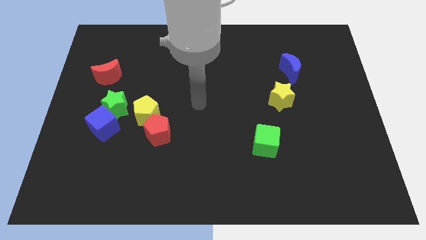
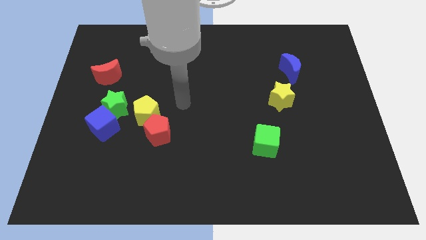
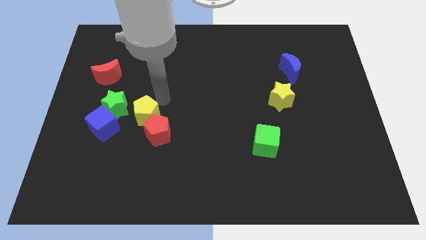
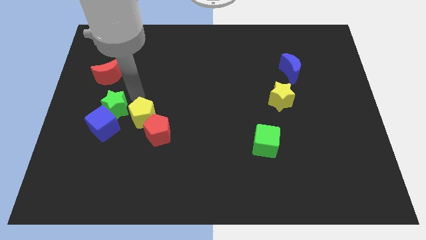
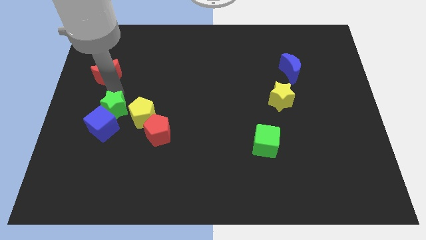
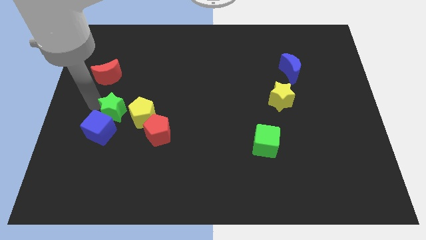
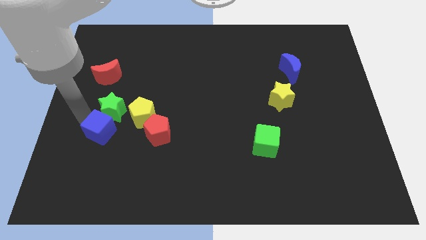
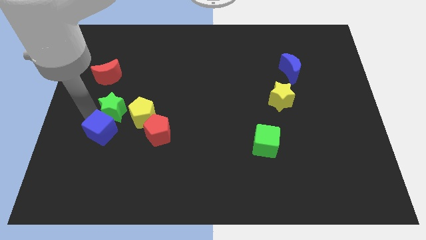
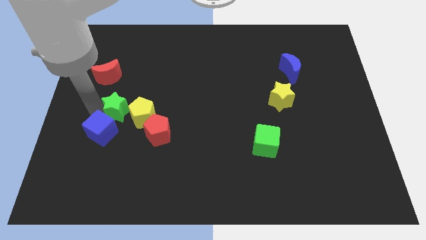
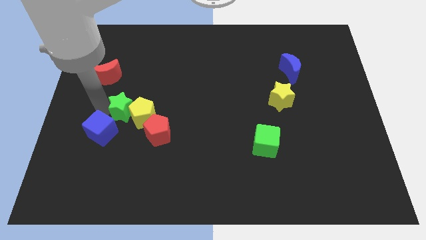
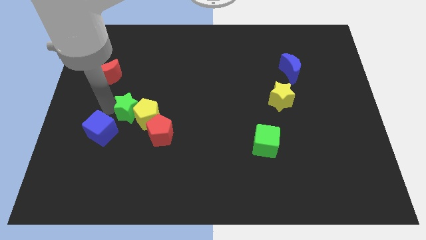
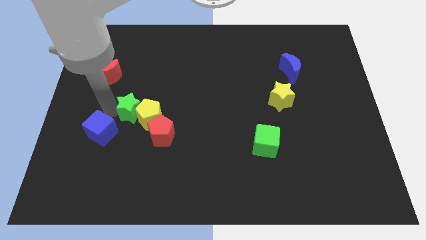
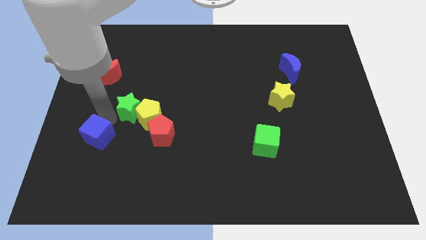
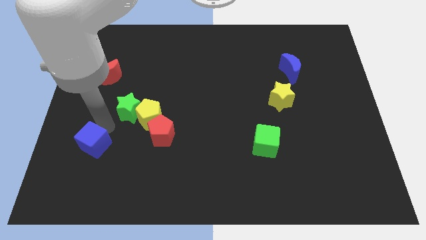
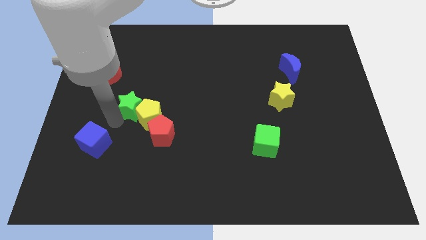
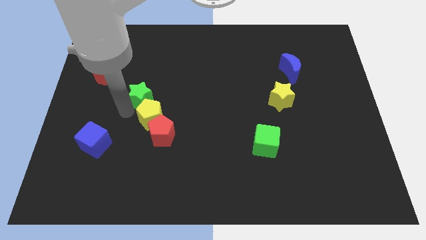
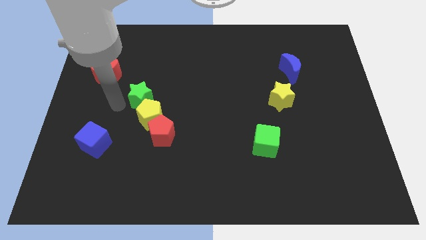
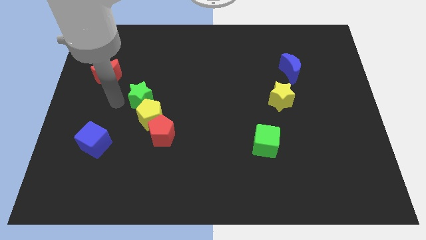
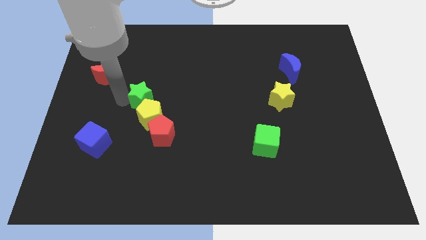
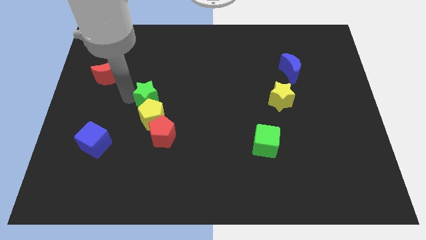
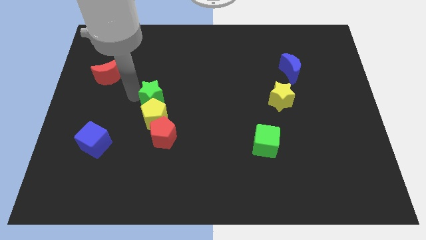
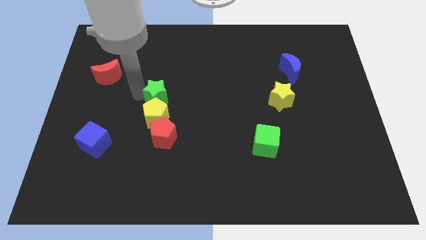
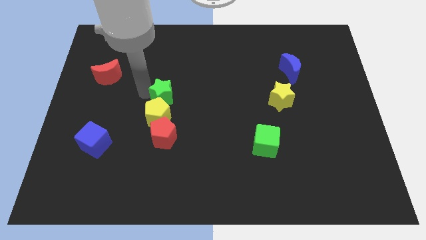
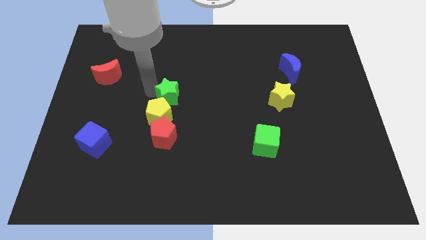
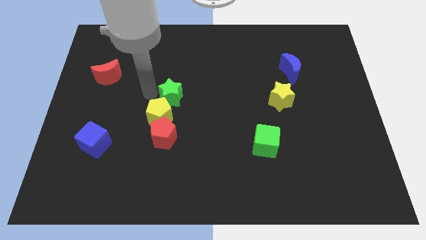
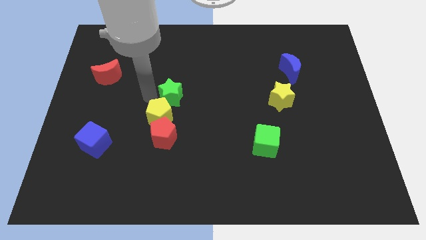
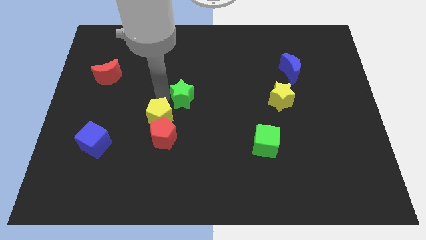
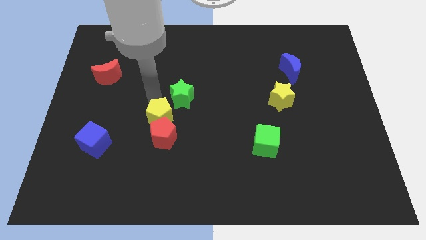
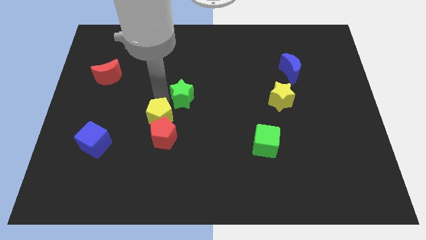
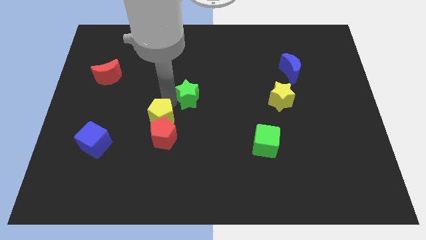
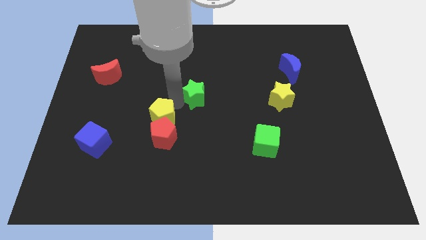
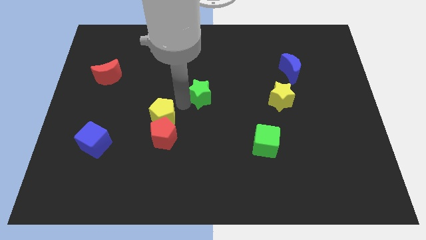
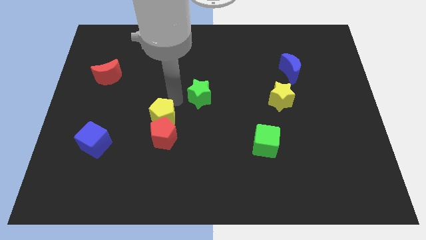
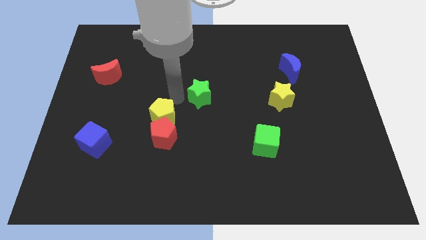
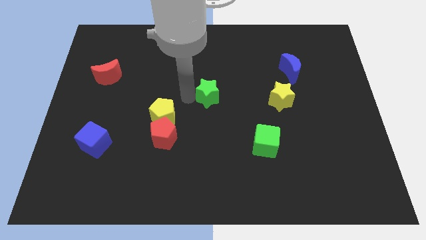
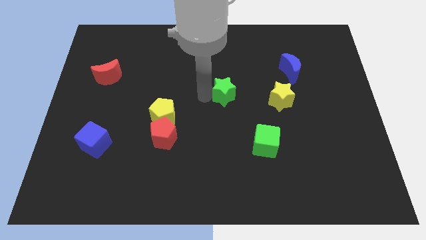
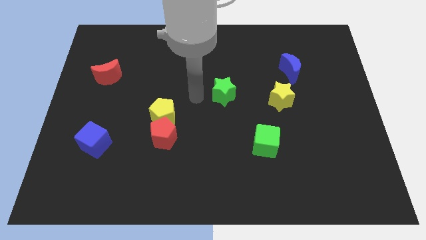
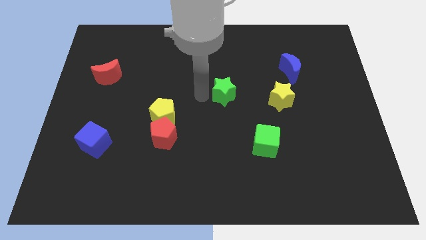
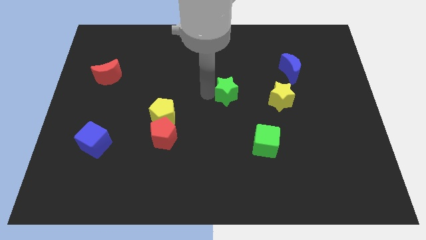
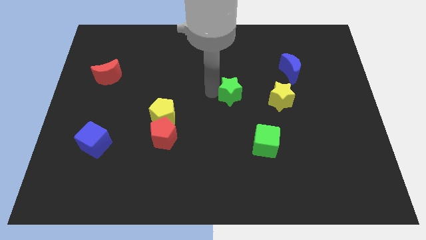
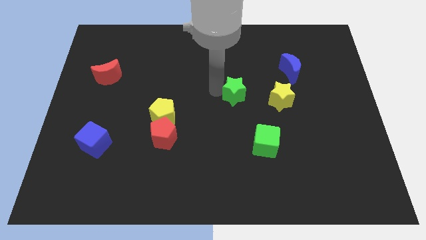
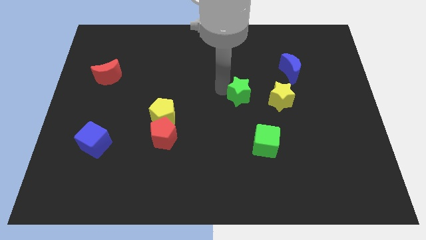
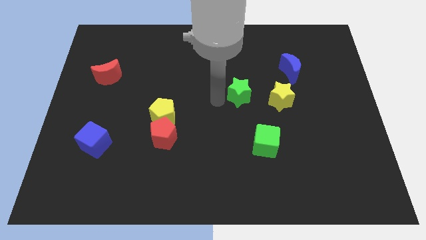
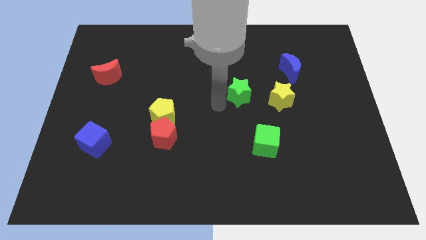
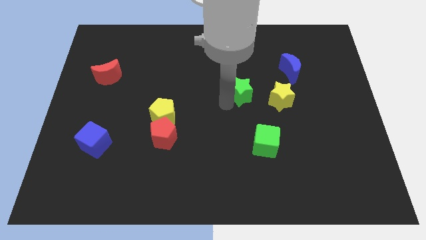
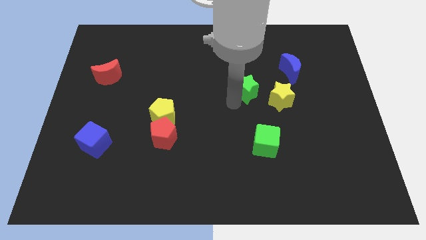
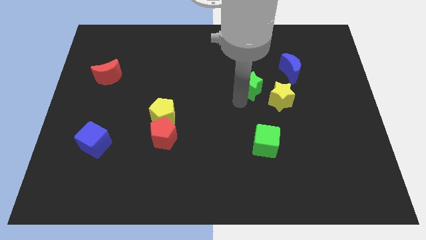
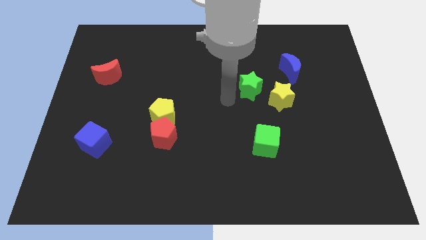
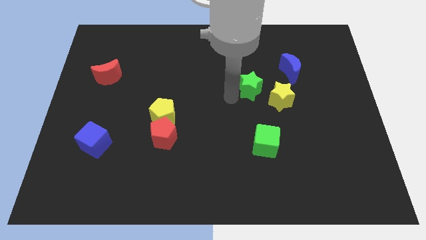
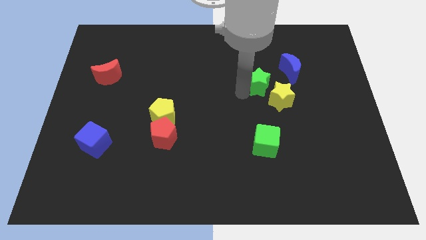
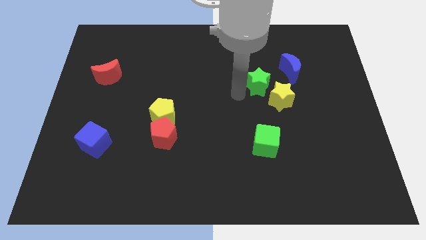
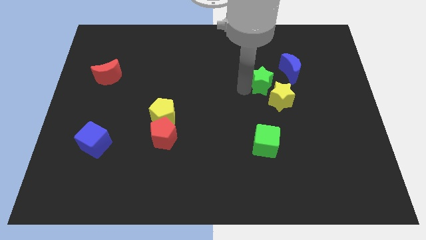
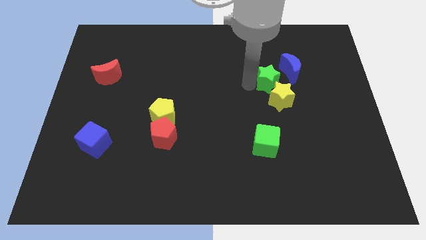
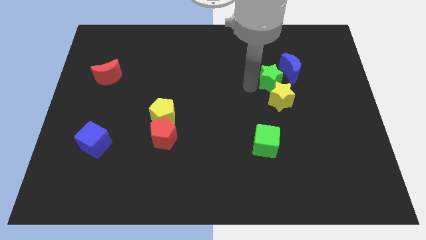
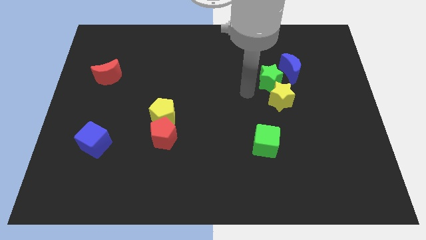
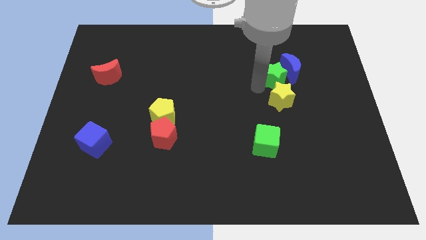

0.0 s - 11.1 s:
put the green star next to the blue moon

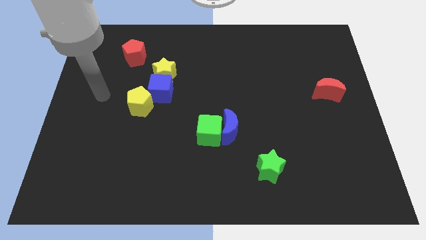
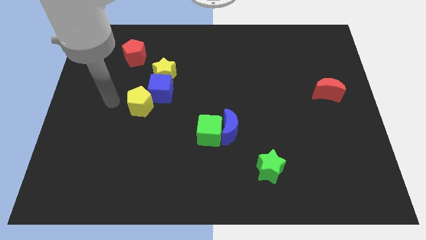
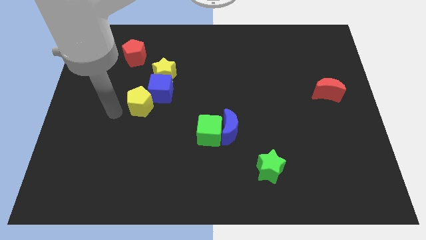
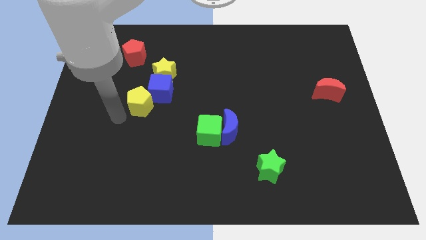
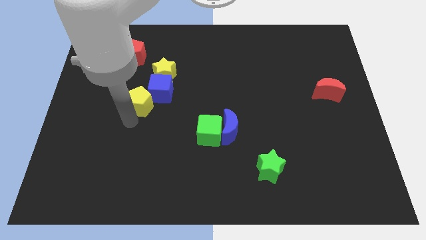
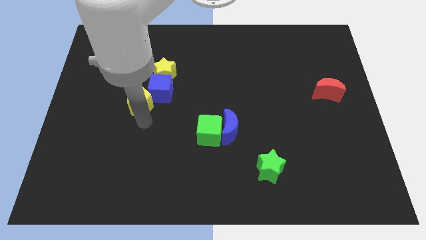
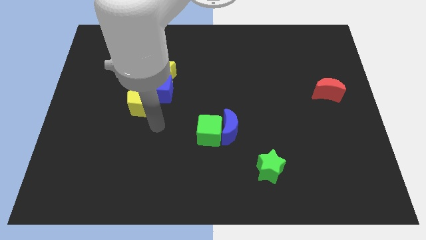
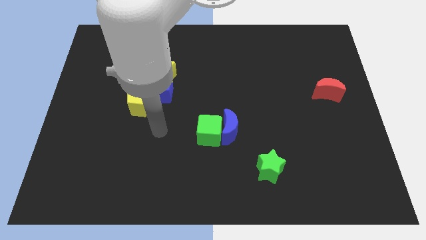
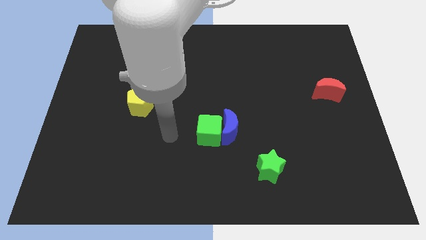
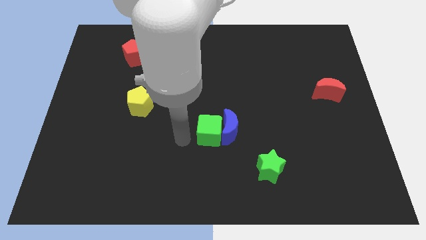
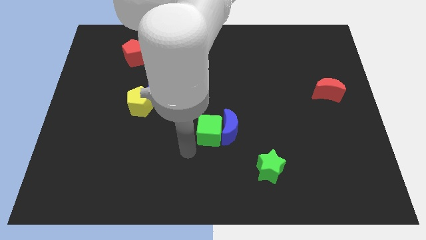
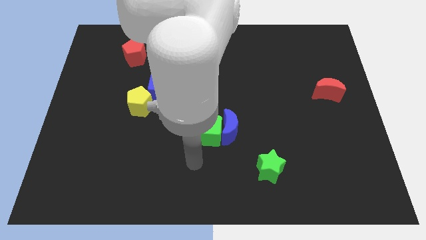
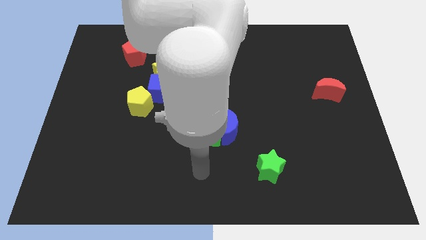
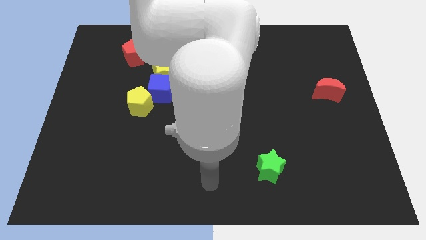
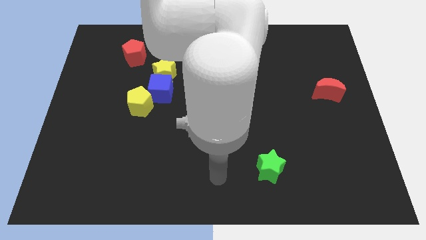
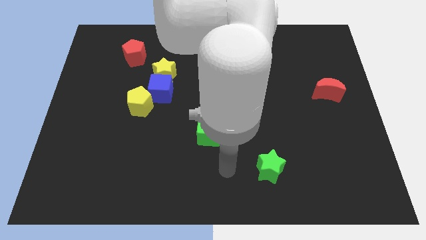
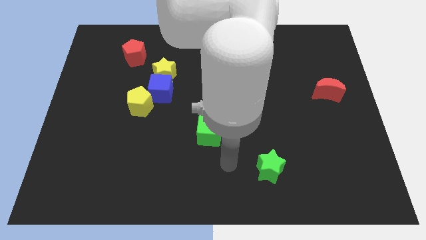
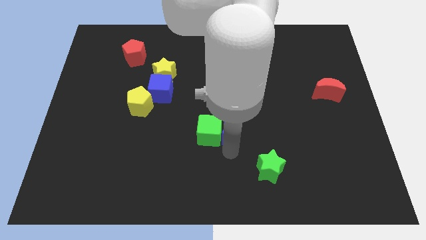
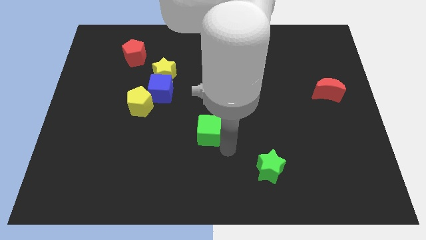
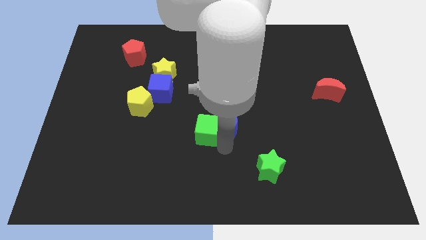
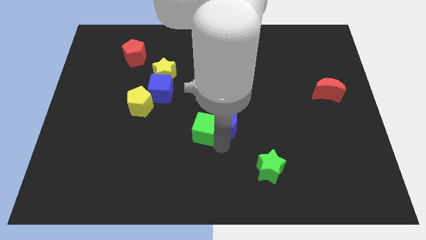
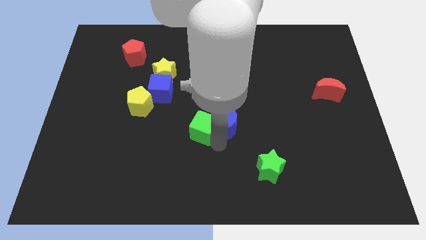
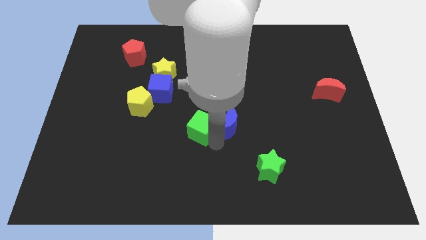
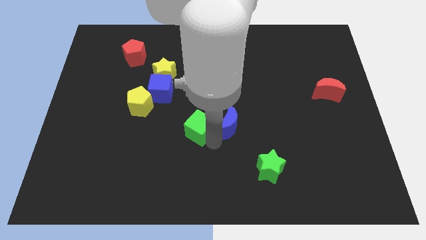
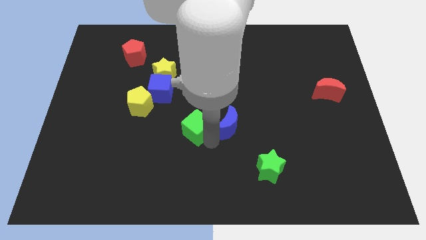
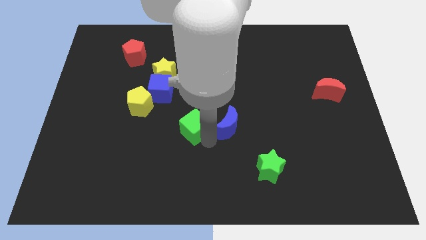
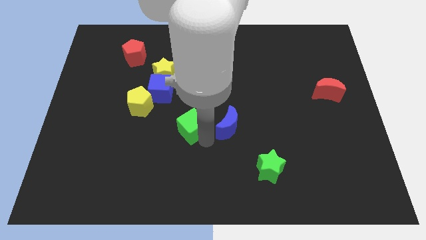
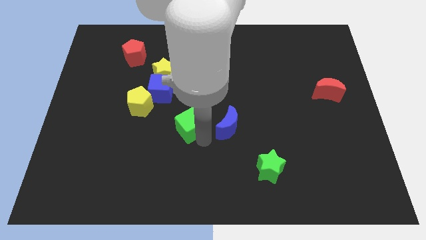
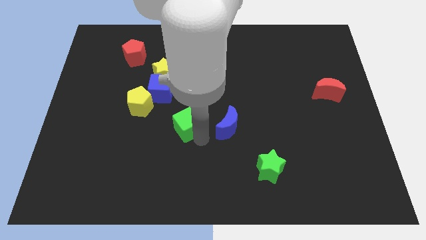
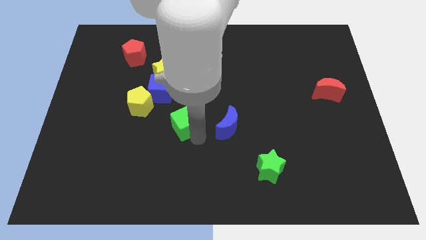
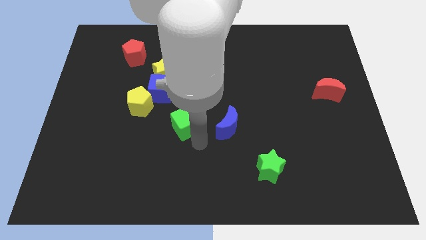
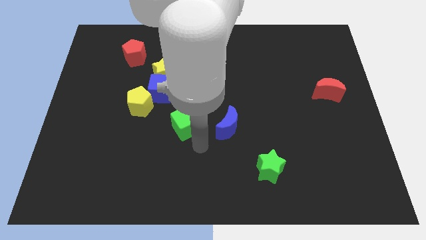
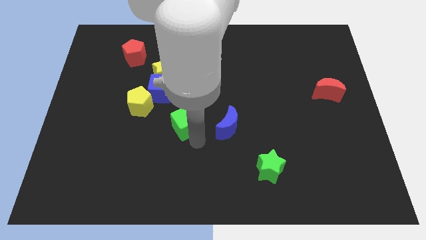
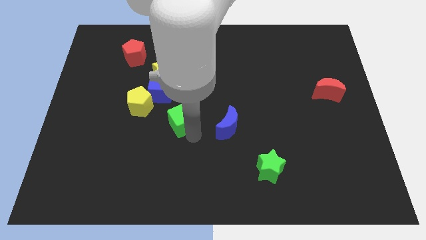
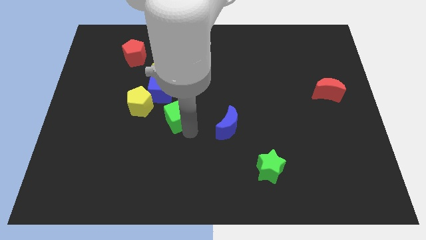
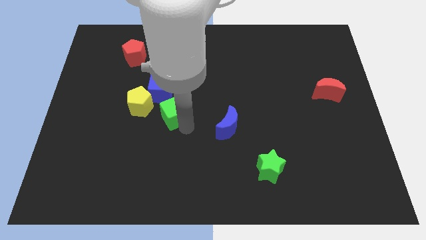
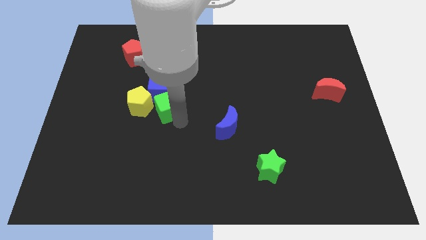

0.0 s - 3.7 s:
move the green cube towards the blue cube
